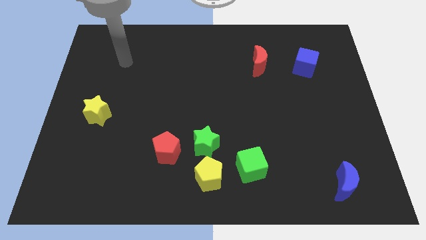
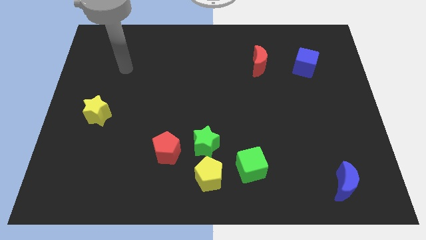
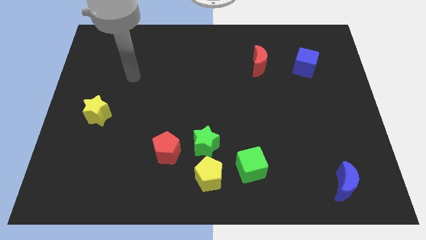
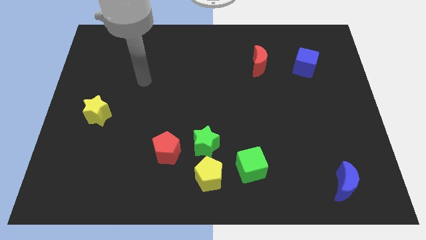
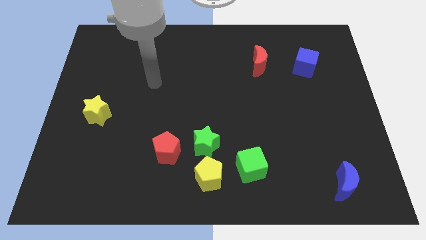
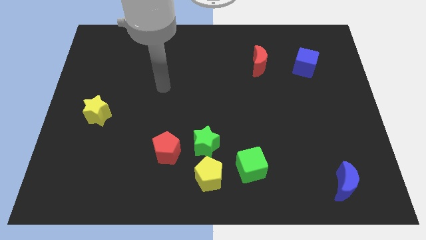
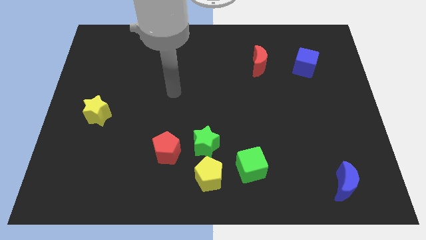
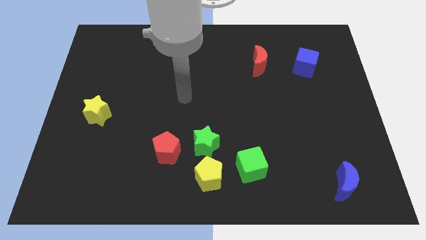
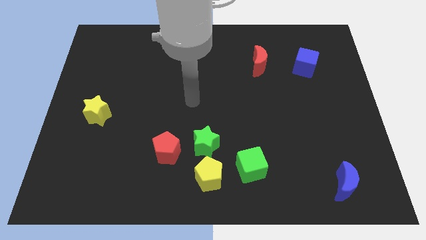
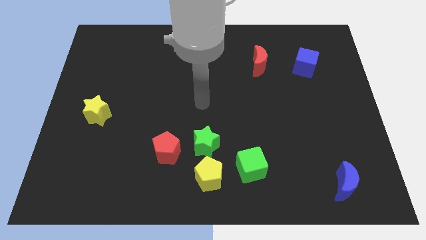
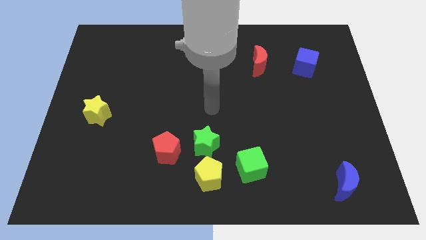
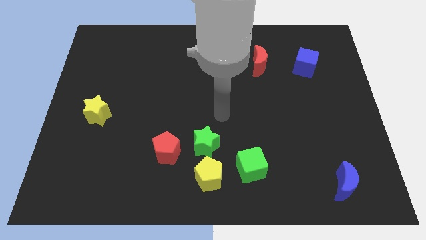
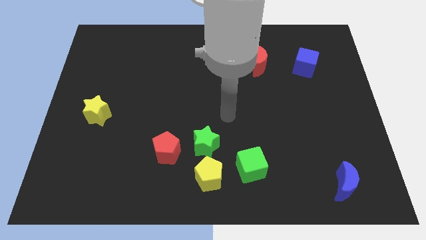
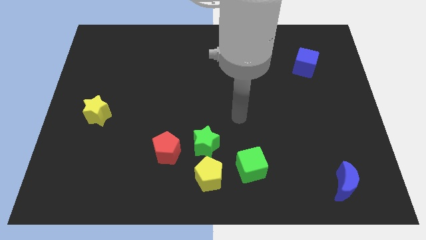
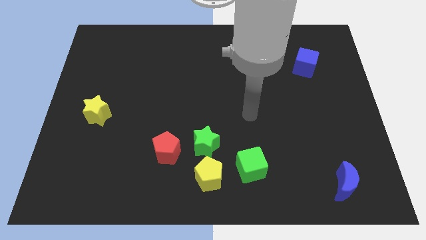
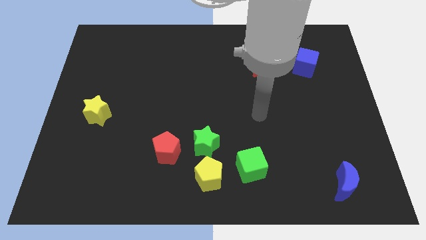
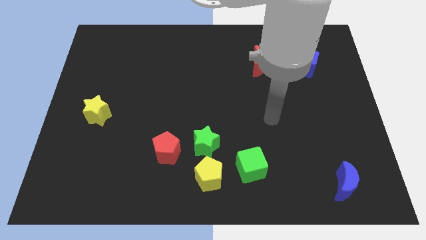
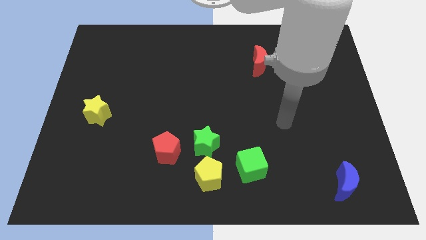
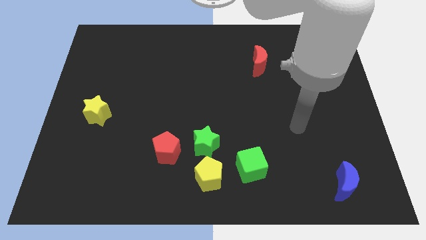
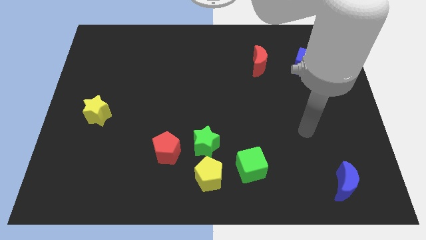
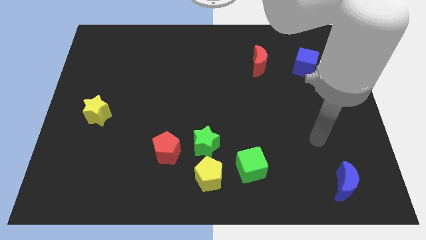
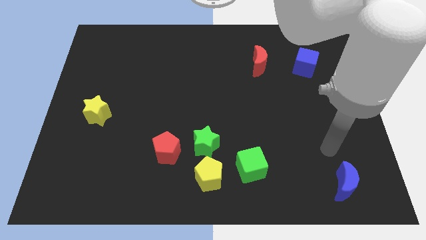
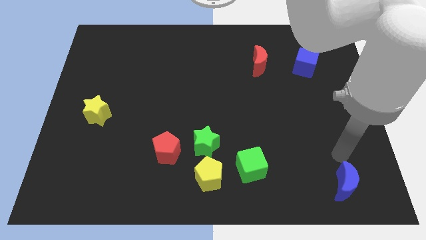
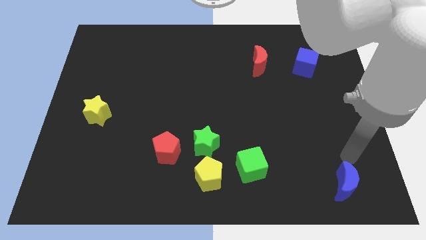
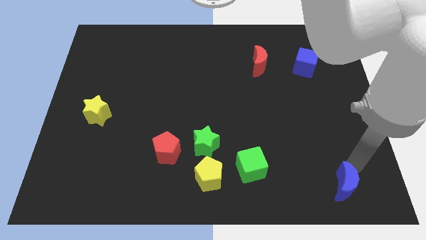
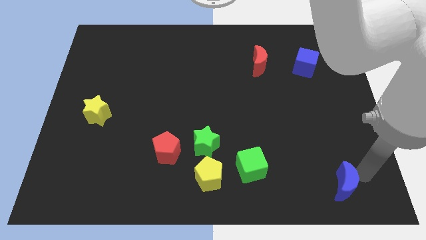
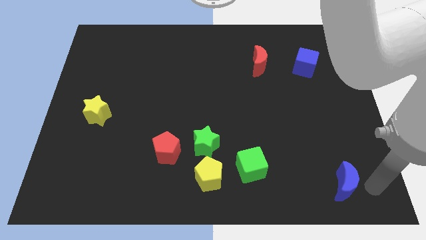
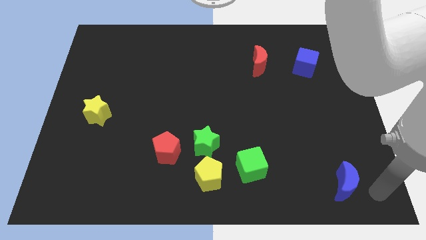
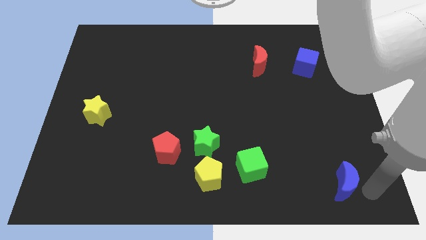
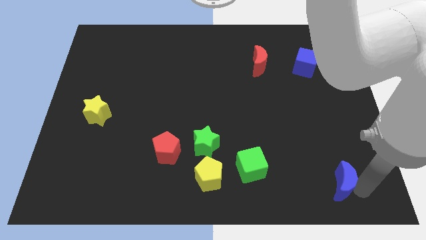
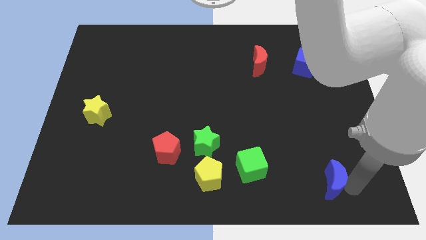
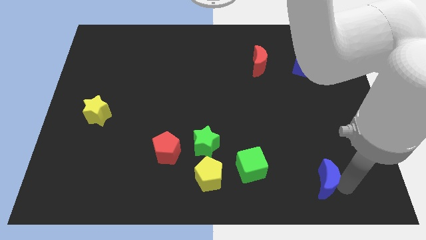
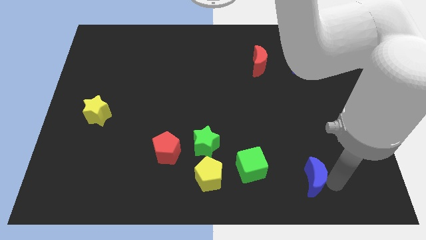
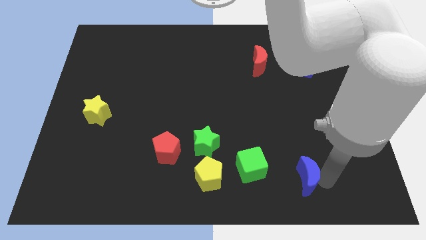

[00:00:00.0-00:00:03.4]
slightly push the blue moon left

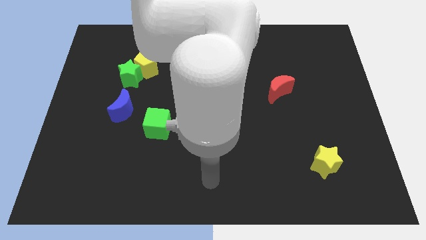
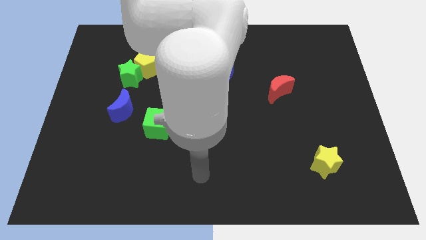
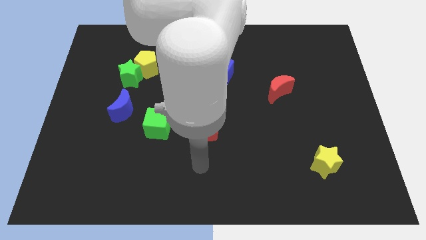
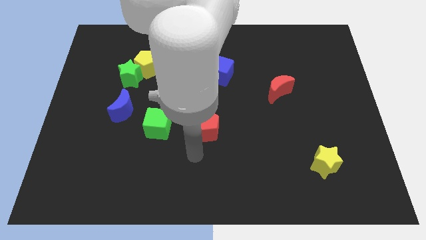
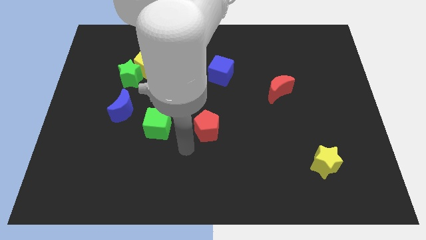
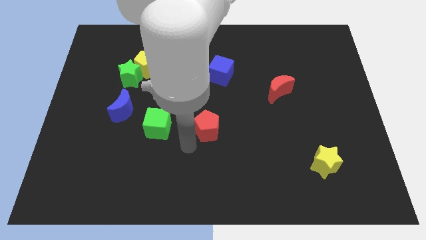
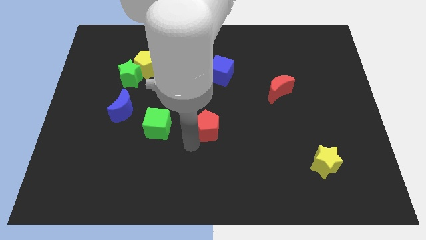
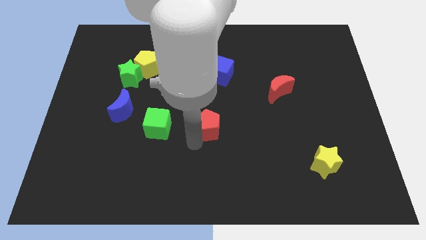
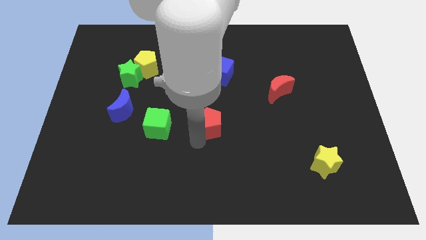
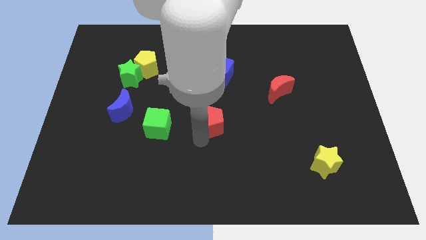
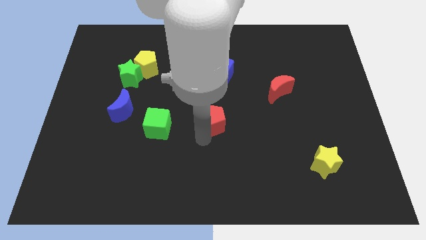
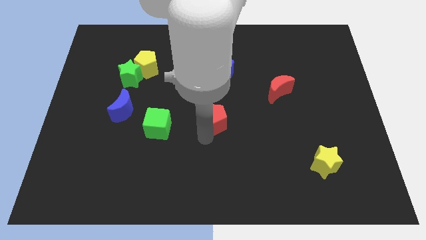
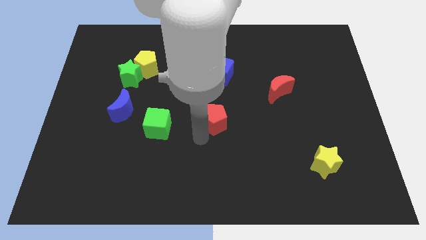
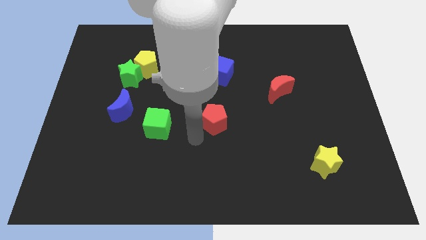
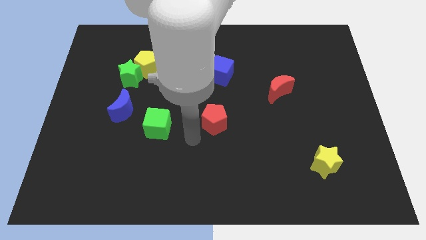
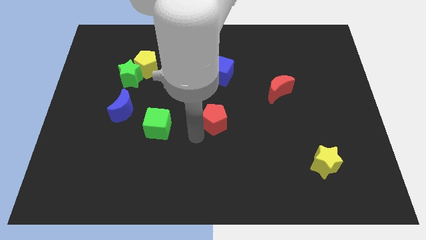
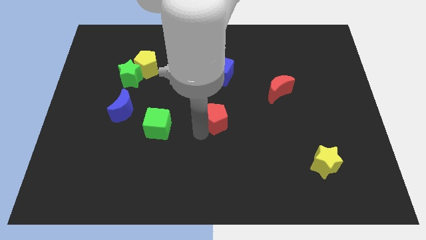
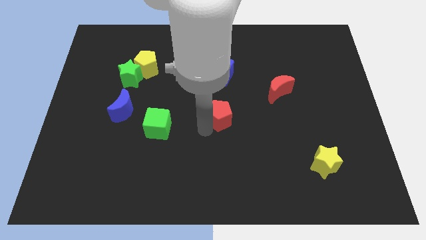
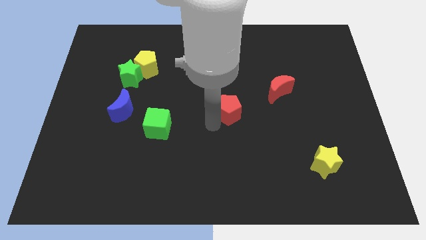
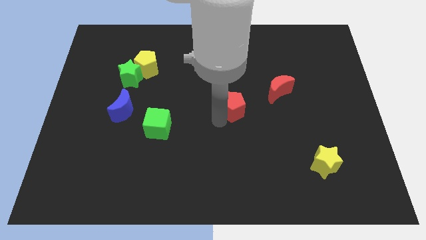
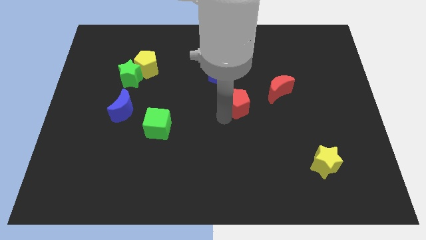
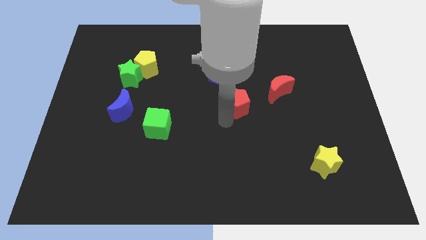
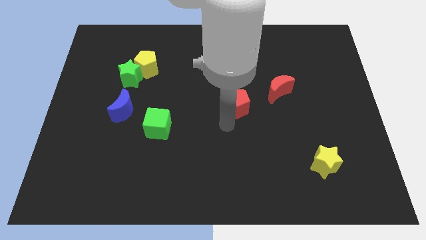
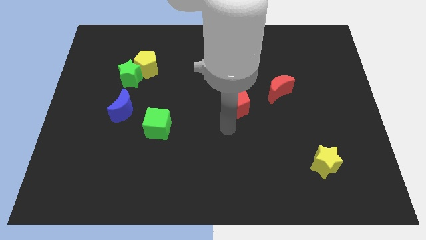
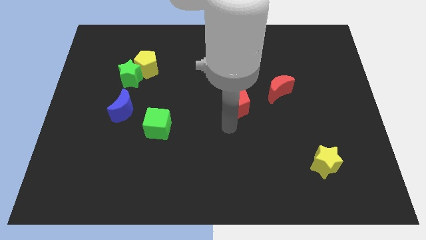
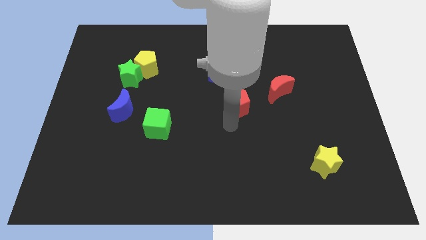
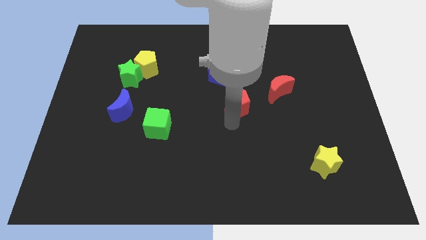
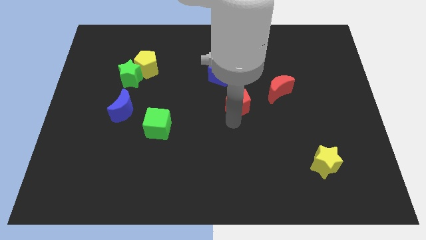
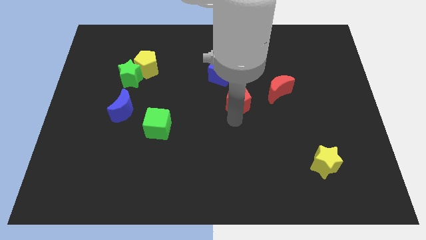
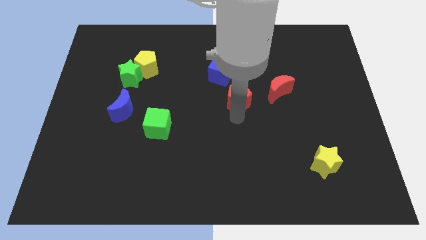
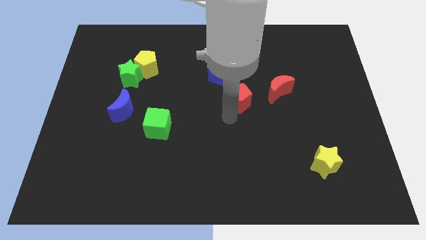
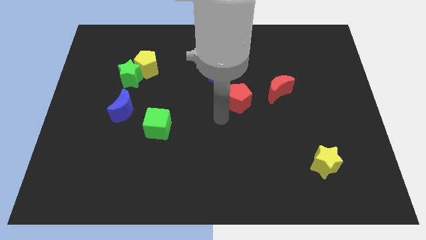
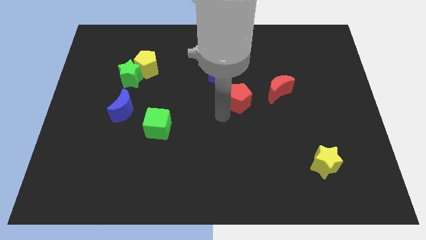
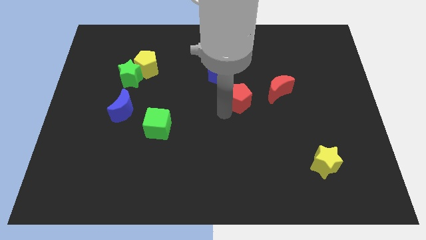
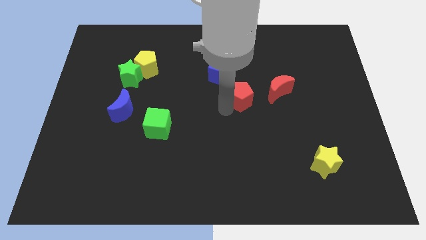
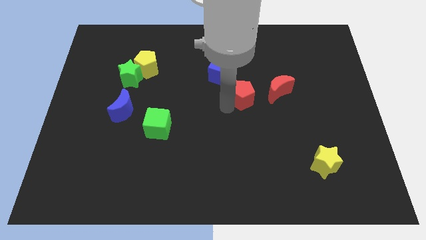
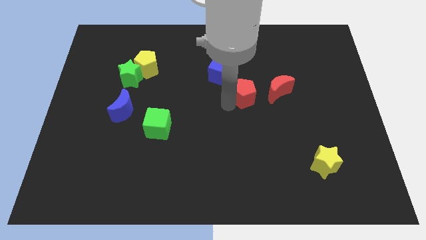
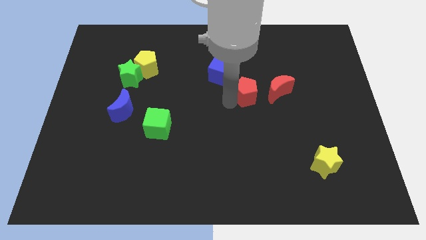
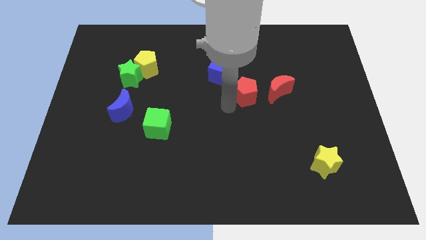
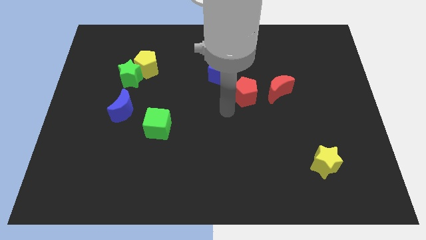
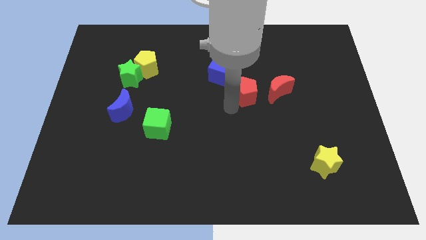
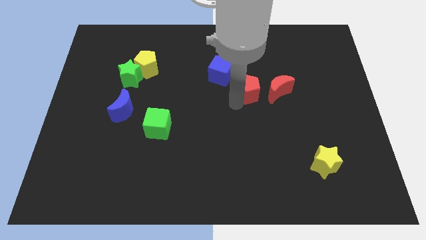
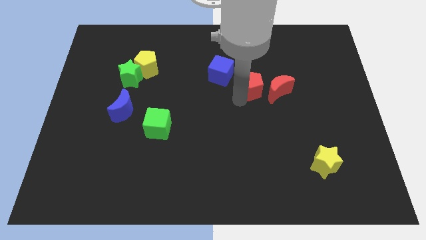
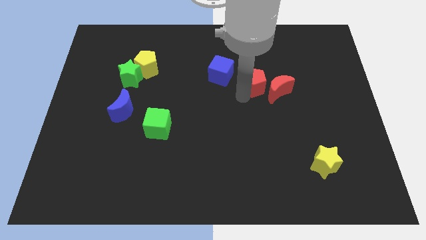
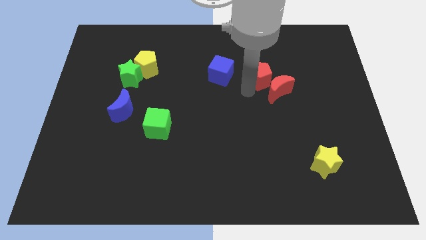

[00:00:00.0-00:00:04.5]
move the red pentagon diagonally upwards and right

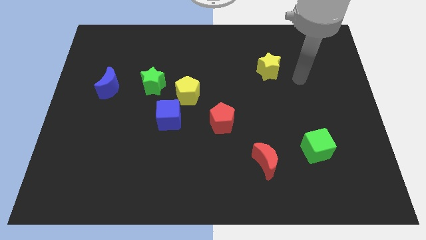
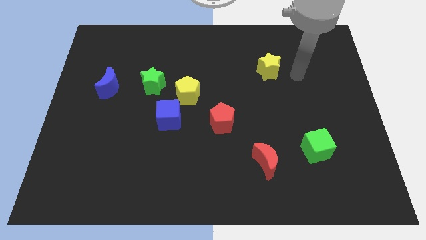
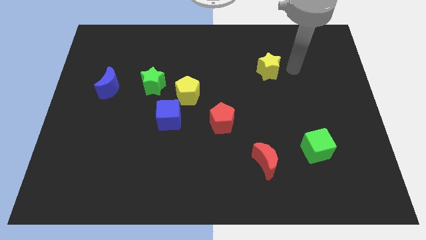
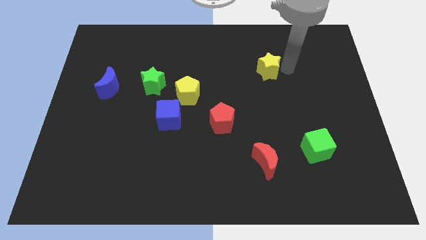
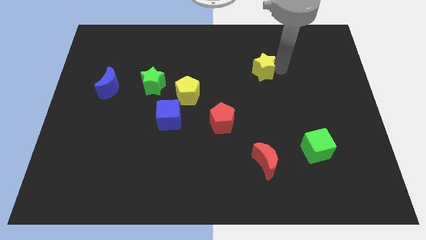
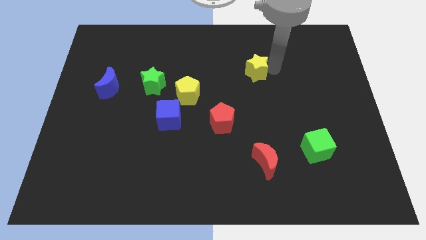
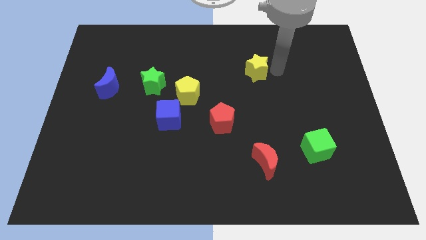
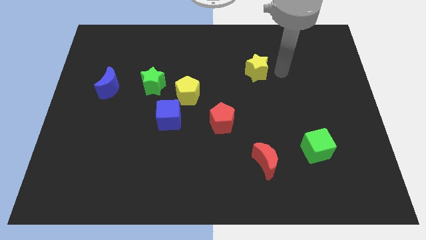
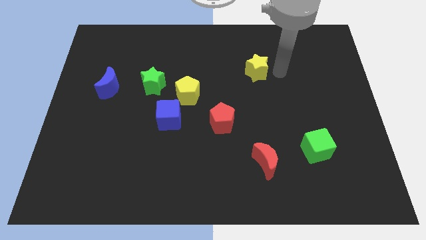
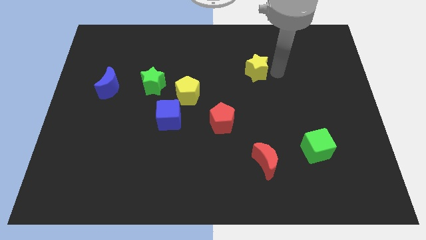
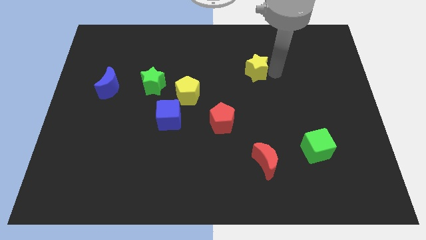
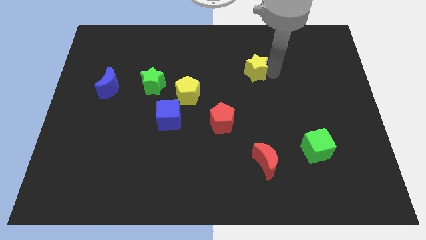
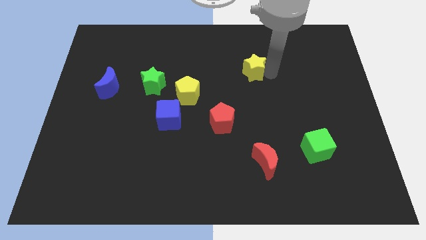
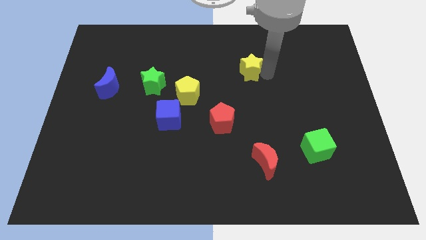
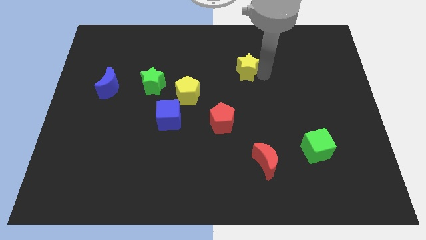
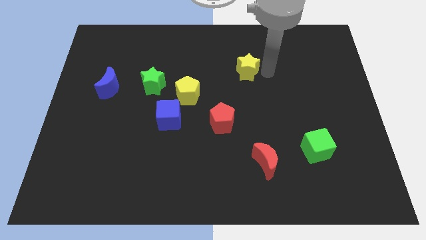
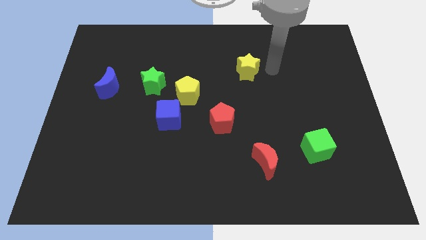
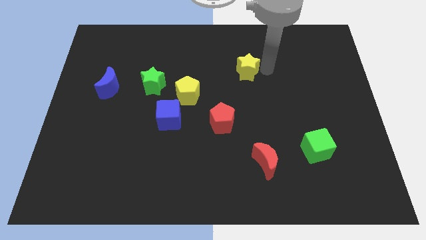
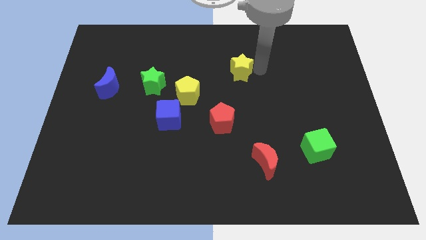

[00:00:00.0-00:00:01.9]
slightly push the yellow star left
